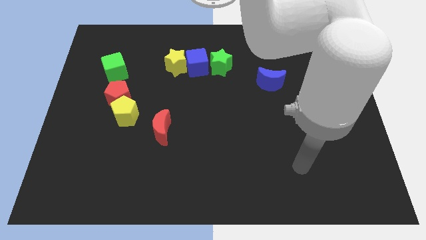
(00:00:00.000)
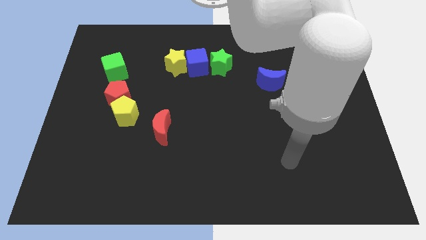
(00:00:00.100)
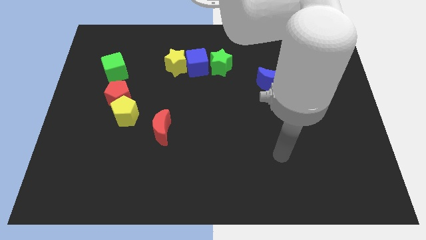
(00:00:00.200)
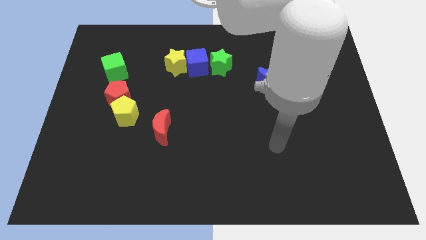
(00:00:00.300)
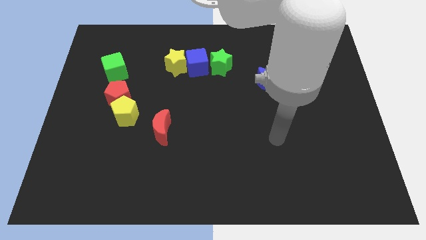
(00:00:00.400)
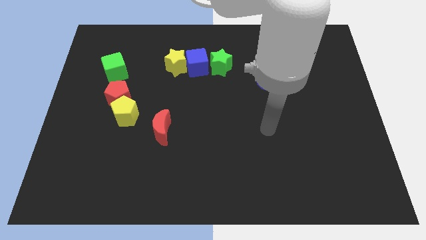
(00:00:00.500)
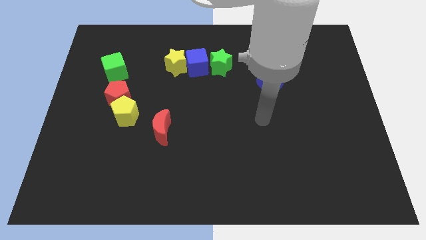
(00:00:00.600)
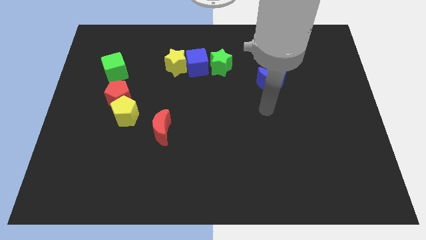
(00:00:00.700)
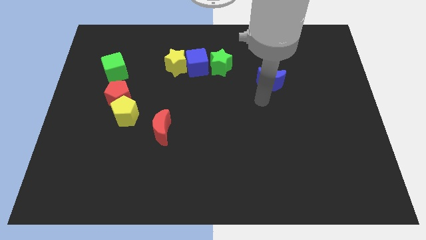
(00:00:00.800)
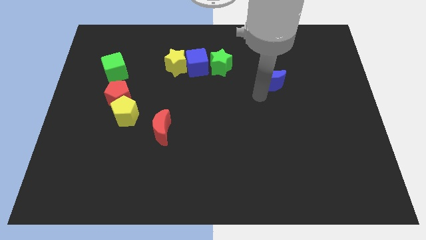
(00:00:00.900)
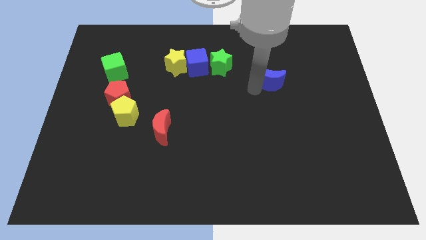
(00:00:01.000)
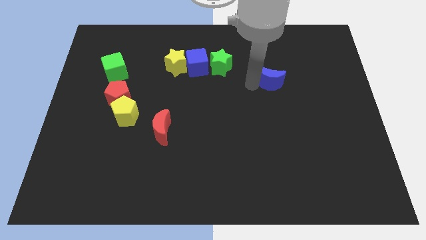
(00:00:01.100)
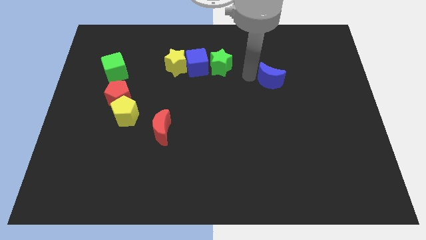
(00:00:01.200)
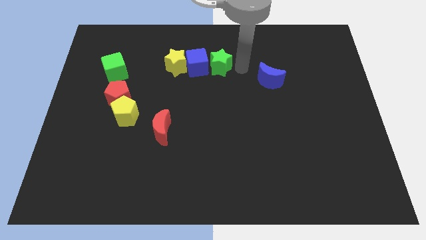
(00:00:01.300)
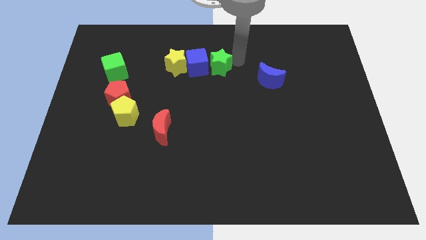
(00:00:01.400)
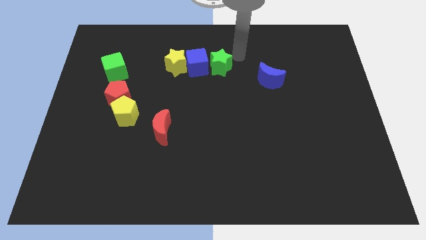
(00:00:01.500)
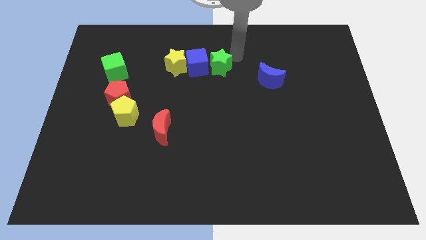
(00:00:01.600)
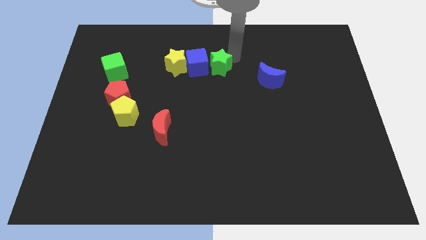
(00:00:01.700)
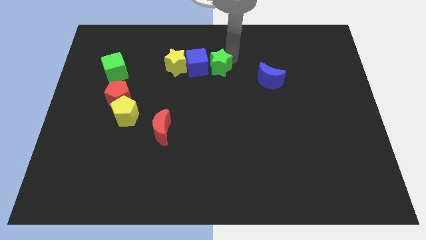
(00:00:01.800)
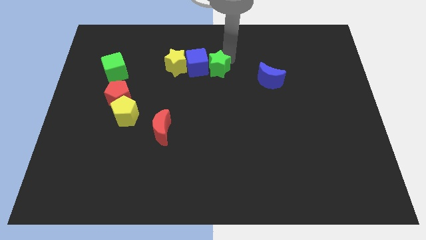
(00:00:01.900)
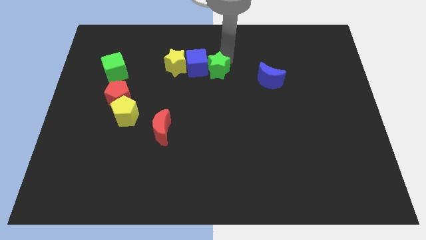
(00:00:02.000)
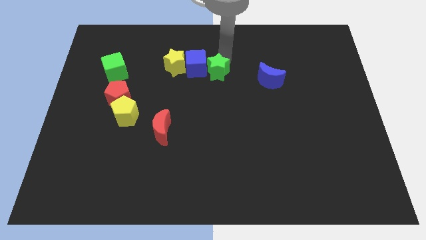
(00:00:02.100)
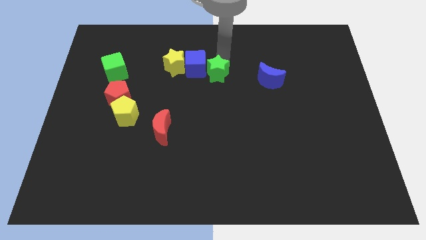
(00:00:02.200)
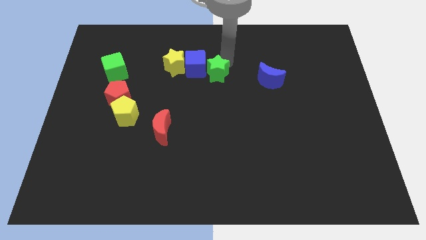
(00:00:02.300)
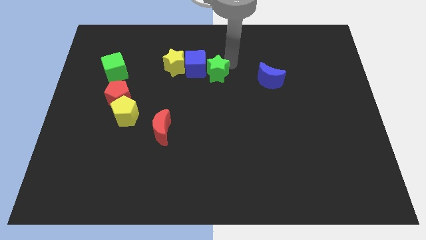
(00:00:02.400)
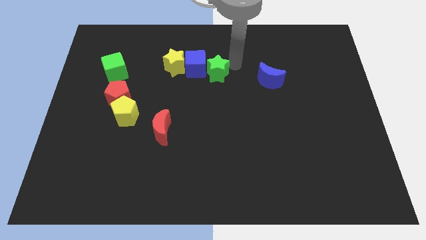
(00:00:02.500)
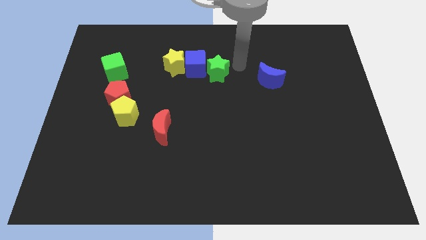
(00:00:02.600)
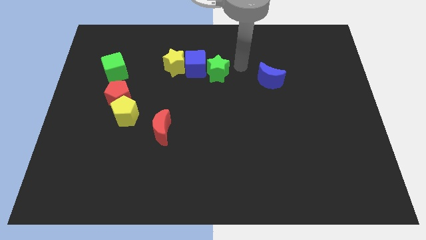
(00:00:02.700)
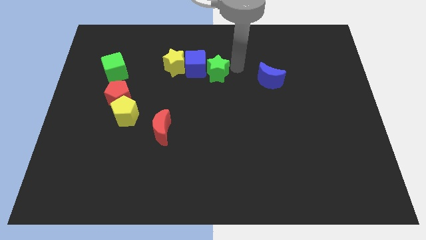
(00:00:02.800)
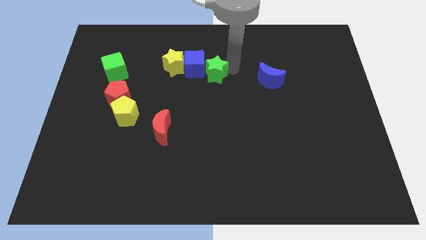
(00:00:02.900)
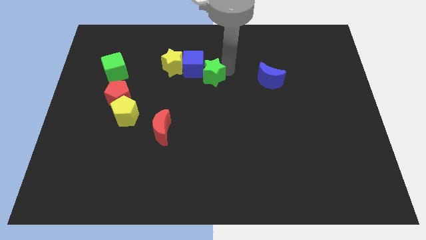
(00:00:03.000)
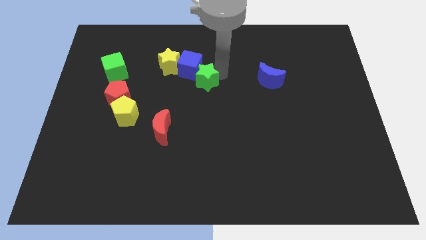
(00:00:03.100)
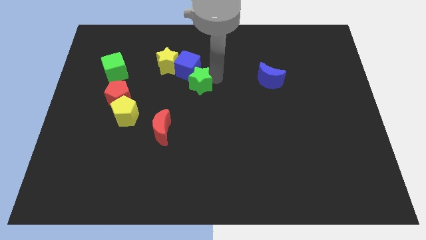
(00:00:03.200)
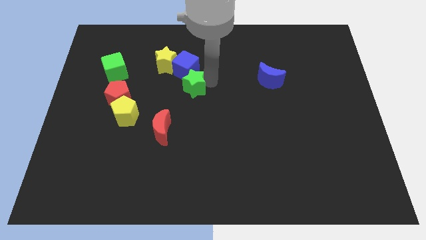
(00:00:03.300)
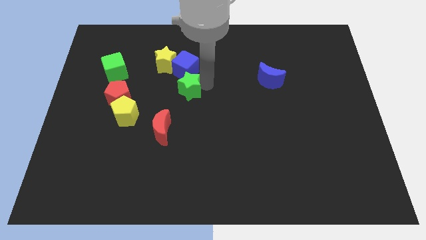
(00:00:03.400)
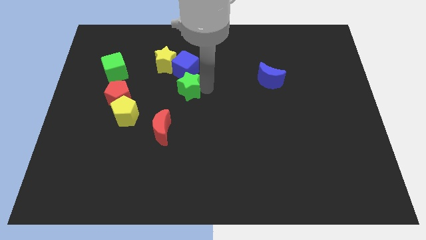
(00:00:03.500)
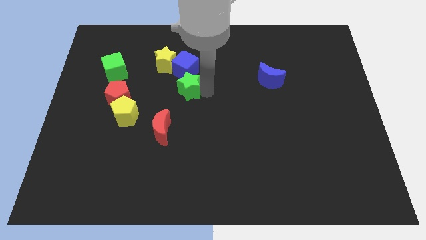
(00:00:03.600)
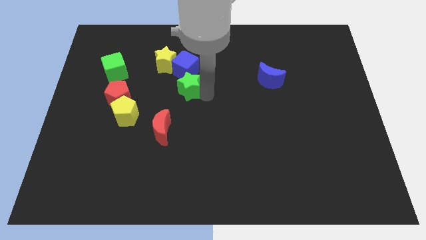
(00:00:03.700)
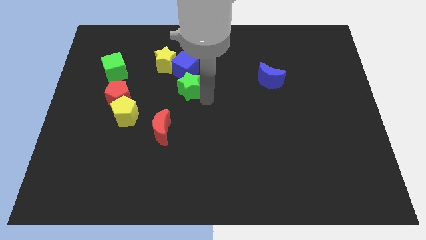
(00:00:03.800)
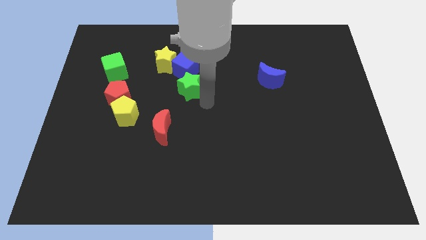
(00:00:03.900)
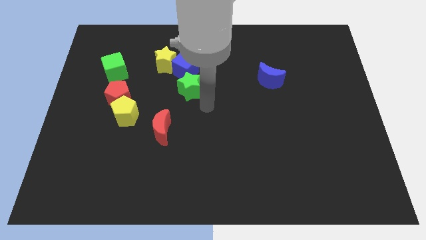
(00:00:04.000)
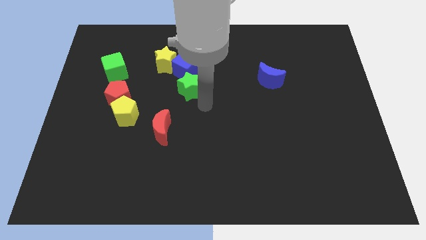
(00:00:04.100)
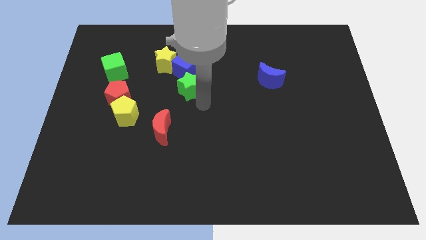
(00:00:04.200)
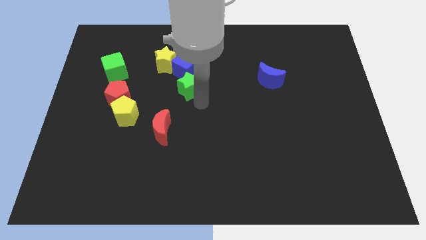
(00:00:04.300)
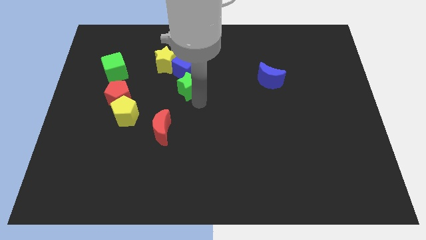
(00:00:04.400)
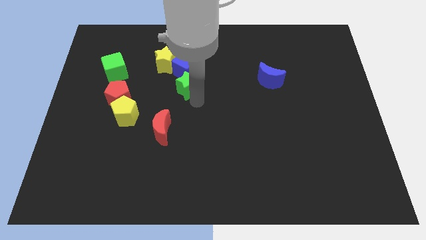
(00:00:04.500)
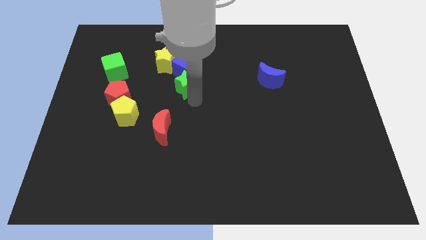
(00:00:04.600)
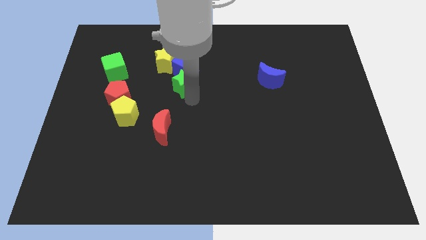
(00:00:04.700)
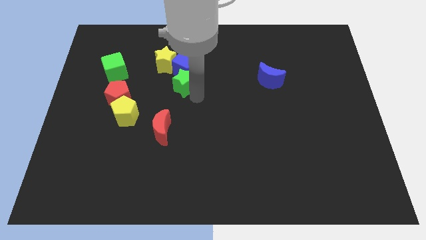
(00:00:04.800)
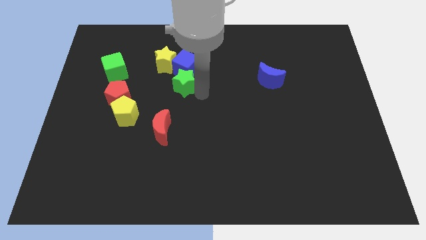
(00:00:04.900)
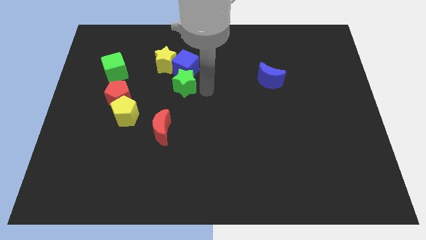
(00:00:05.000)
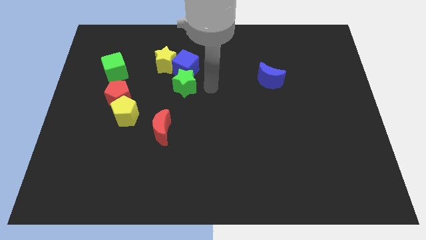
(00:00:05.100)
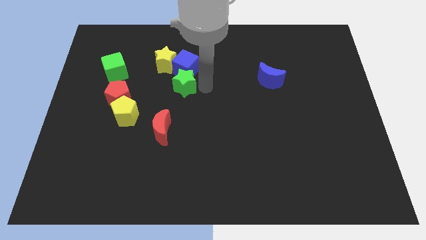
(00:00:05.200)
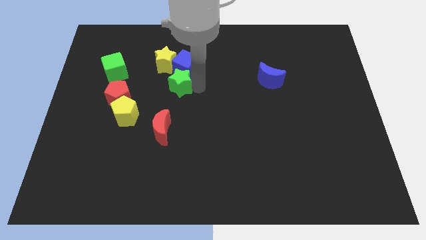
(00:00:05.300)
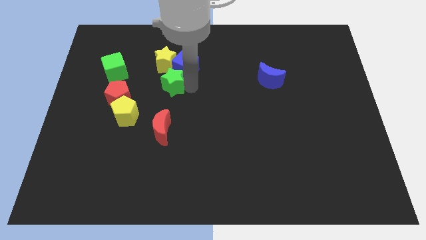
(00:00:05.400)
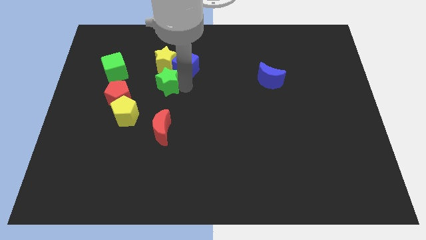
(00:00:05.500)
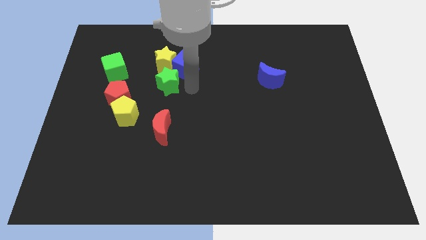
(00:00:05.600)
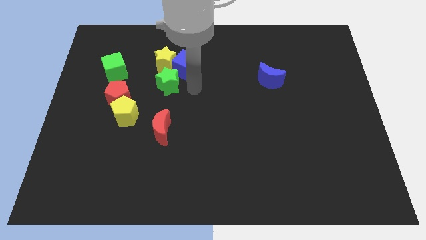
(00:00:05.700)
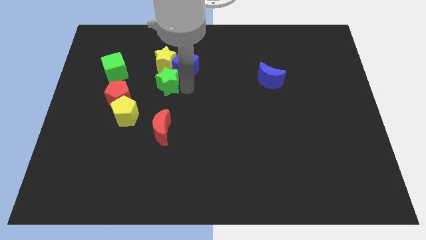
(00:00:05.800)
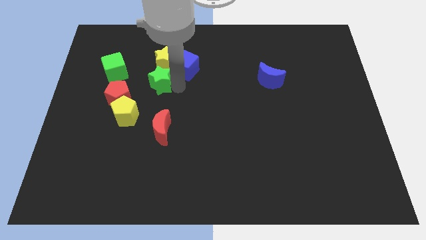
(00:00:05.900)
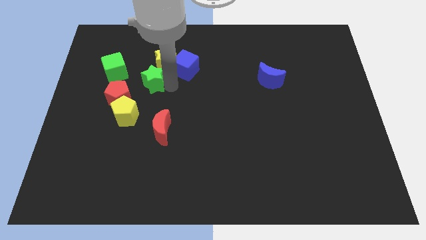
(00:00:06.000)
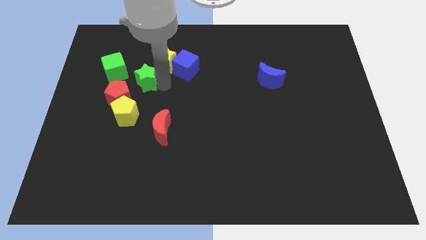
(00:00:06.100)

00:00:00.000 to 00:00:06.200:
move the green star to the top side of the yellow pentagon
